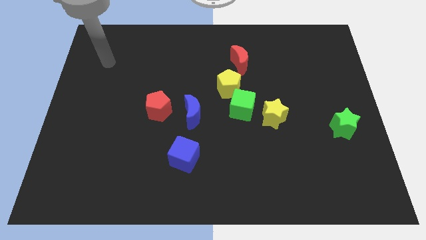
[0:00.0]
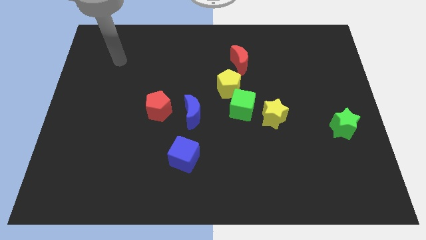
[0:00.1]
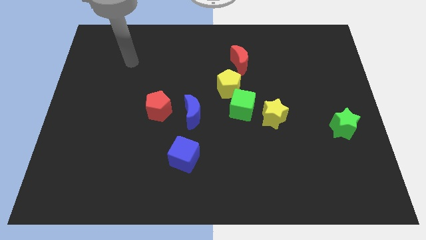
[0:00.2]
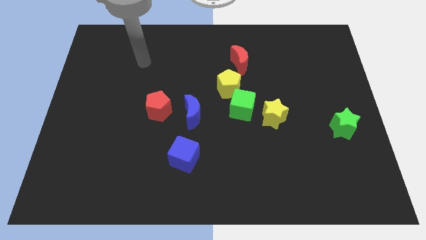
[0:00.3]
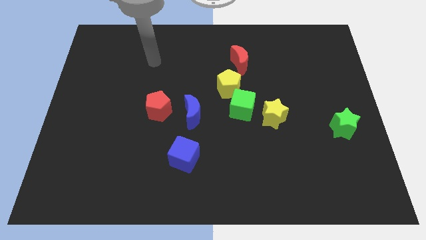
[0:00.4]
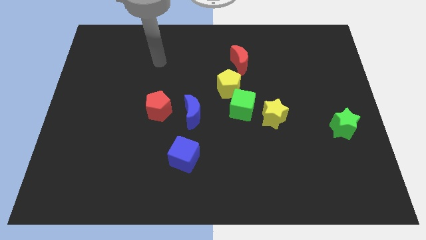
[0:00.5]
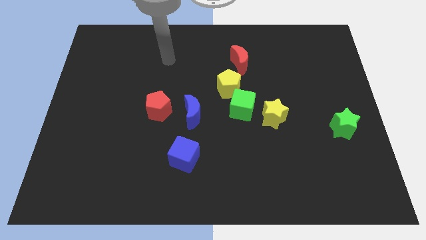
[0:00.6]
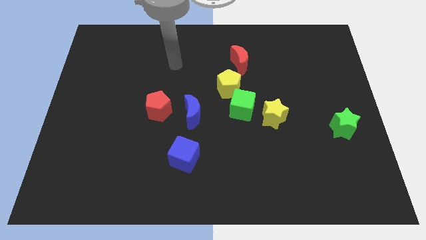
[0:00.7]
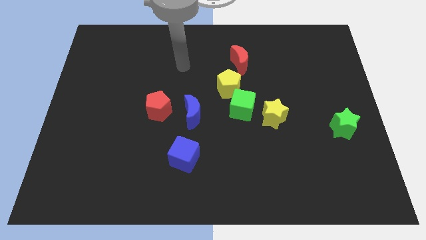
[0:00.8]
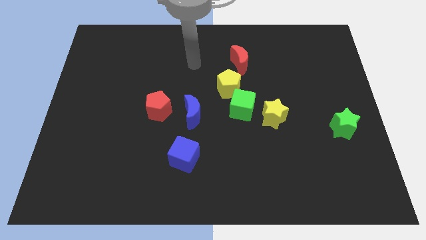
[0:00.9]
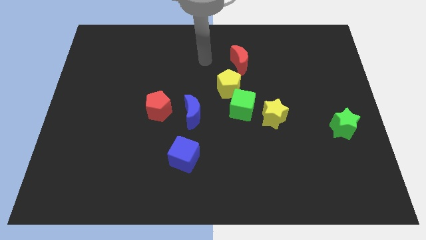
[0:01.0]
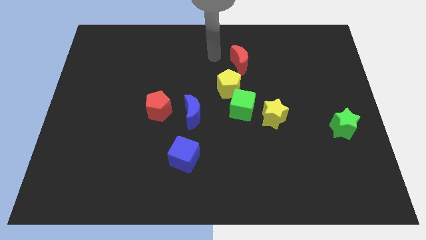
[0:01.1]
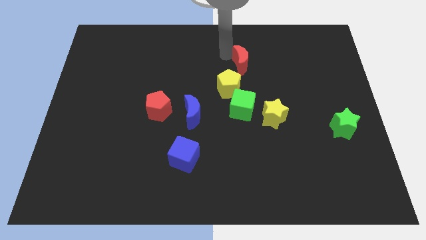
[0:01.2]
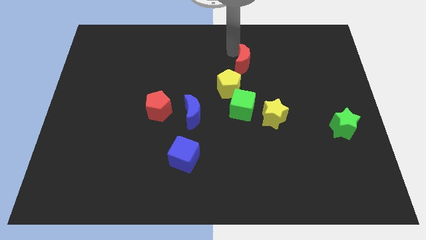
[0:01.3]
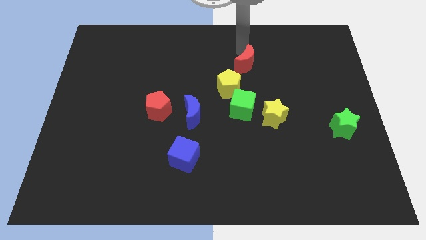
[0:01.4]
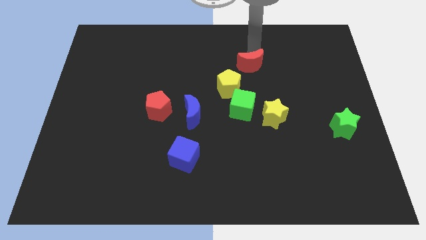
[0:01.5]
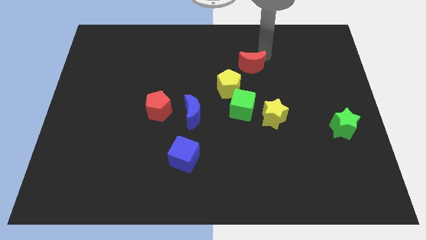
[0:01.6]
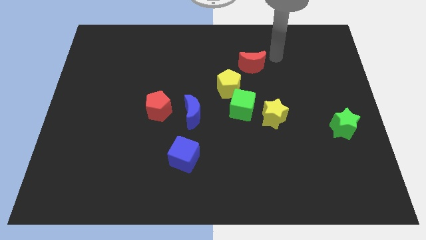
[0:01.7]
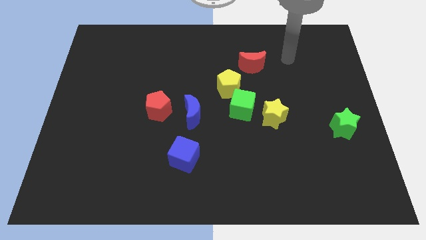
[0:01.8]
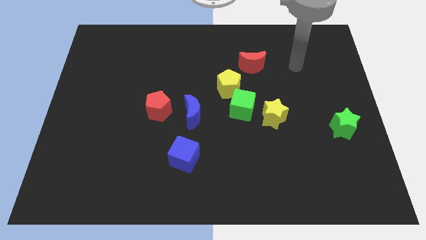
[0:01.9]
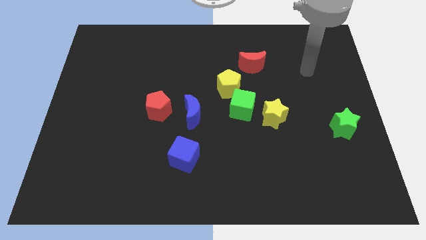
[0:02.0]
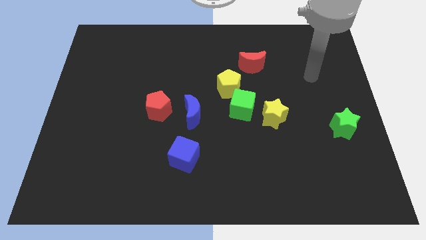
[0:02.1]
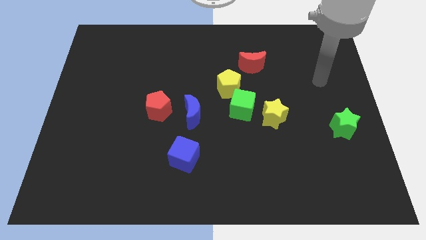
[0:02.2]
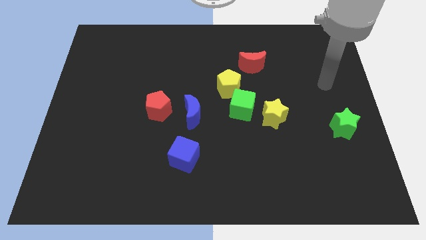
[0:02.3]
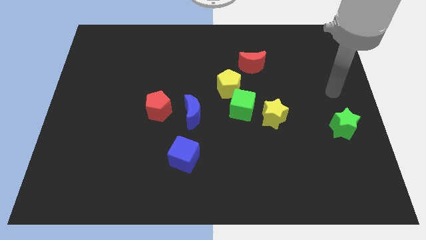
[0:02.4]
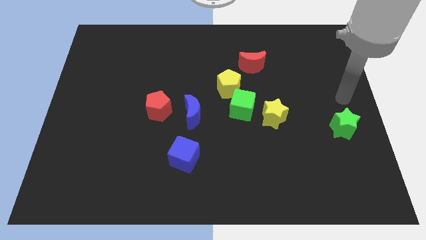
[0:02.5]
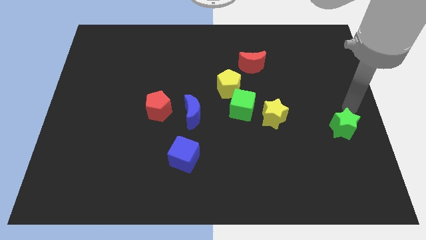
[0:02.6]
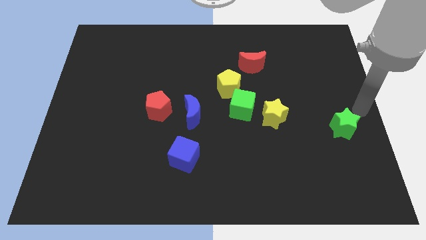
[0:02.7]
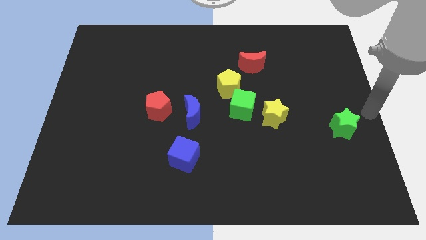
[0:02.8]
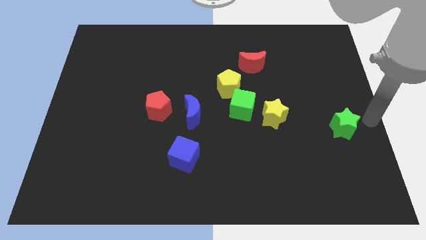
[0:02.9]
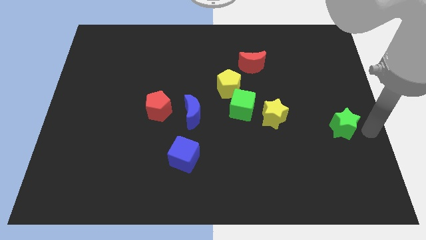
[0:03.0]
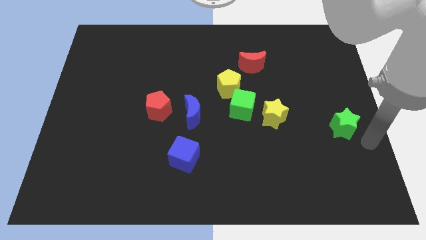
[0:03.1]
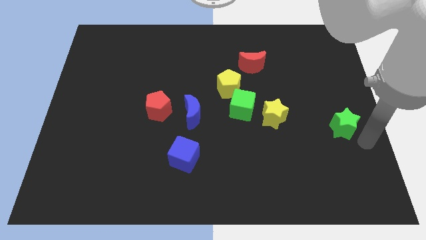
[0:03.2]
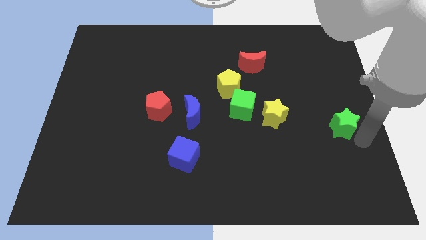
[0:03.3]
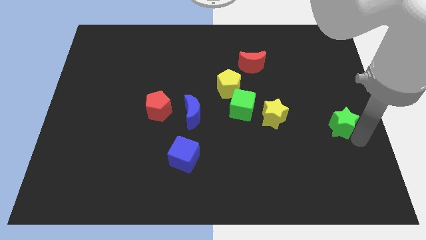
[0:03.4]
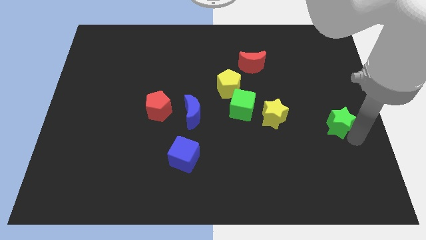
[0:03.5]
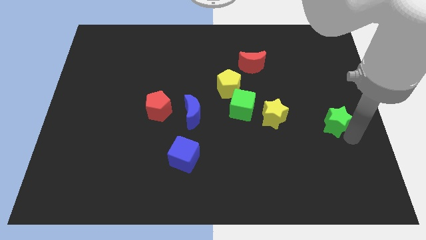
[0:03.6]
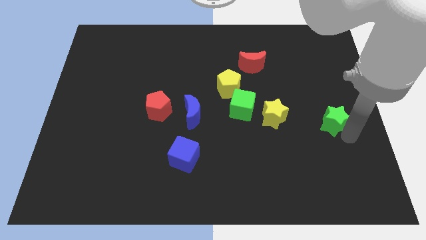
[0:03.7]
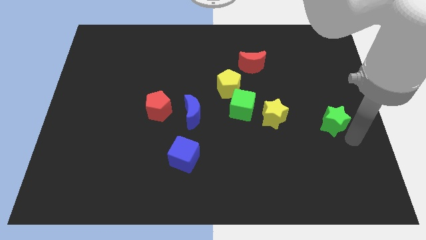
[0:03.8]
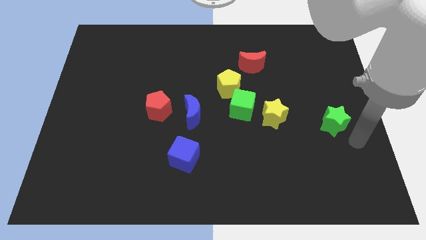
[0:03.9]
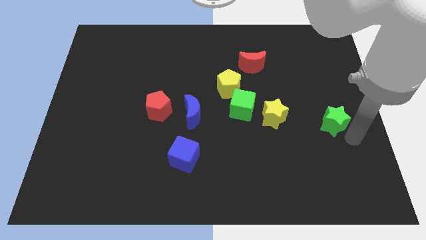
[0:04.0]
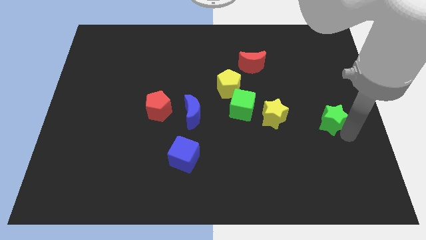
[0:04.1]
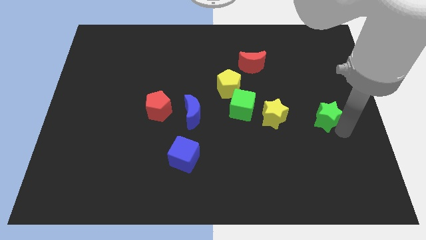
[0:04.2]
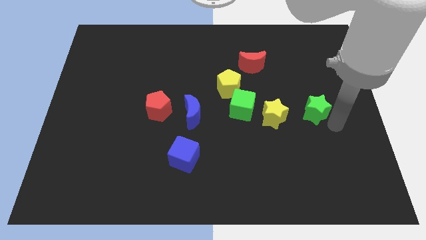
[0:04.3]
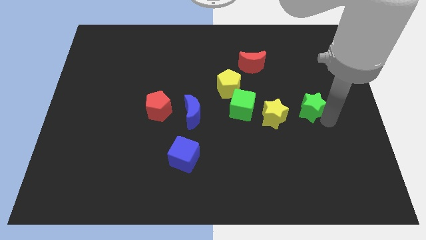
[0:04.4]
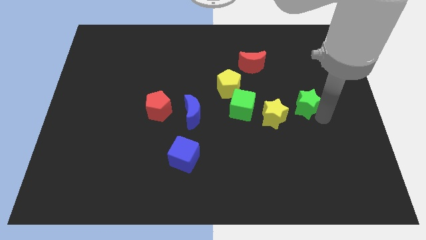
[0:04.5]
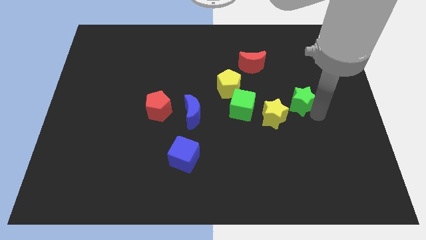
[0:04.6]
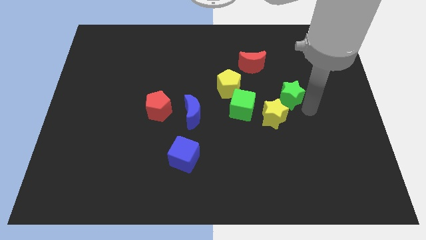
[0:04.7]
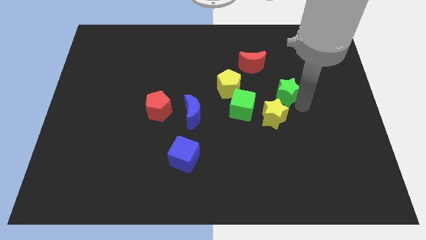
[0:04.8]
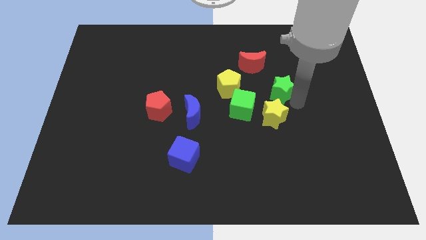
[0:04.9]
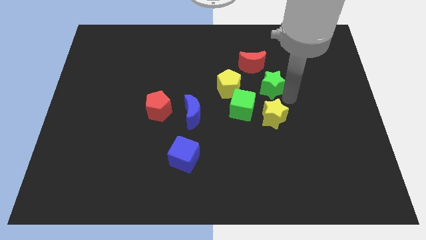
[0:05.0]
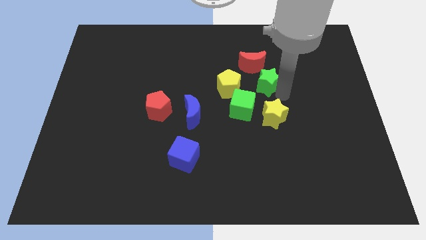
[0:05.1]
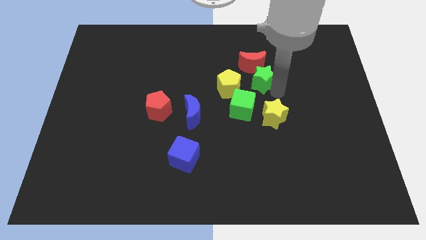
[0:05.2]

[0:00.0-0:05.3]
slide the green star to the red moon

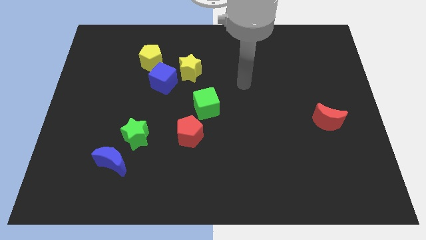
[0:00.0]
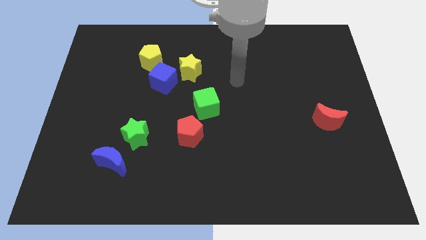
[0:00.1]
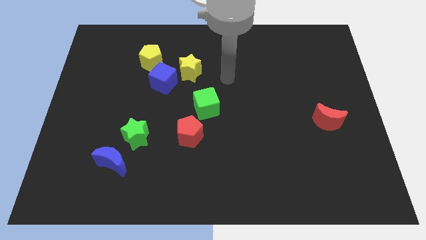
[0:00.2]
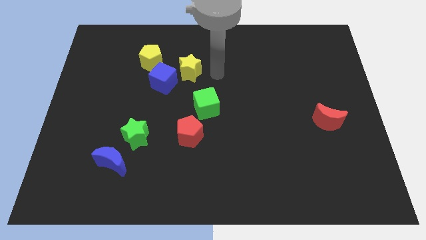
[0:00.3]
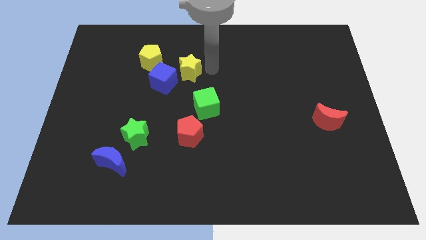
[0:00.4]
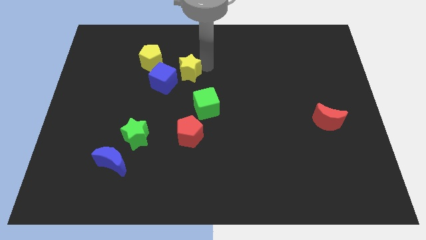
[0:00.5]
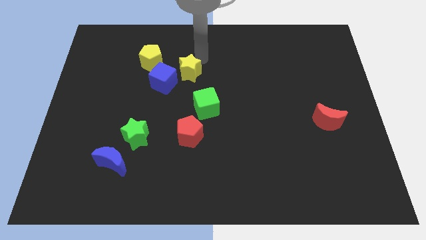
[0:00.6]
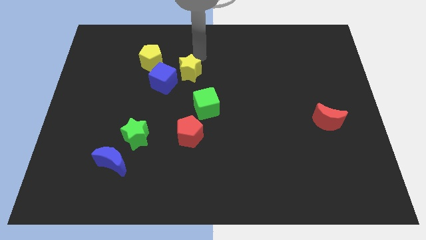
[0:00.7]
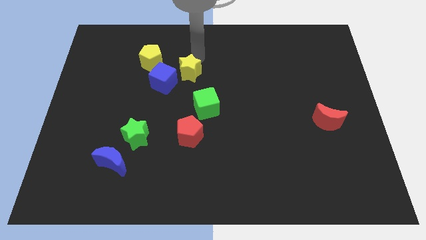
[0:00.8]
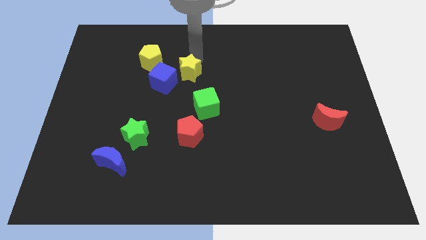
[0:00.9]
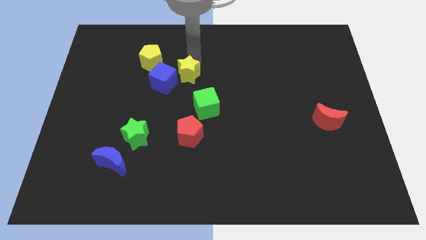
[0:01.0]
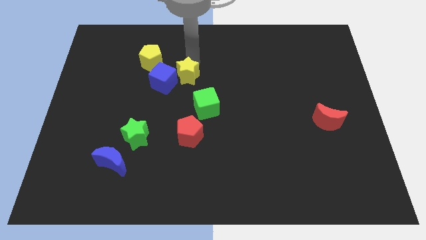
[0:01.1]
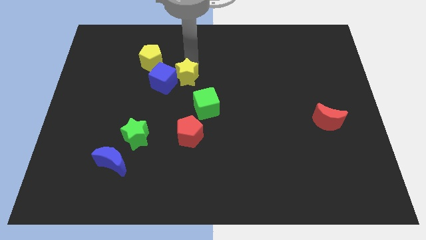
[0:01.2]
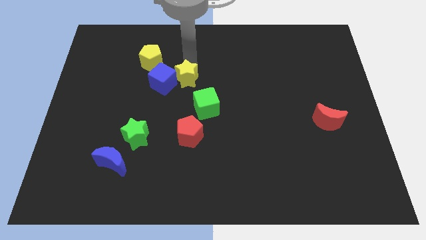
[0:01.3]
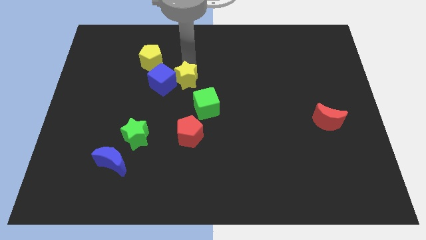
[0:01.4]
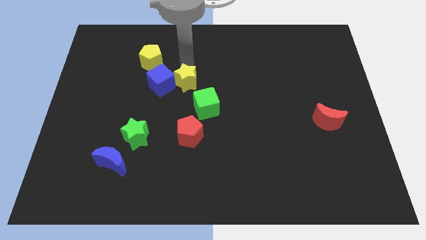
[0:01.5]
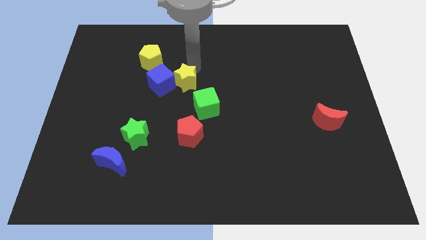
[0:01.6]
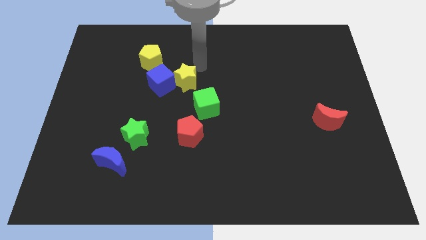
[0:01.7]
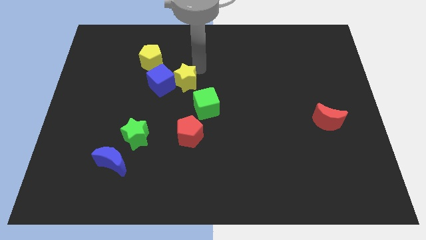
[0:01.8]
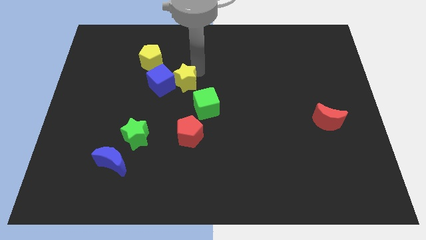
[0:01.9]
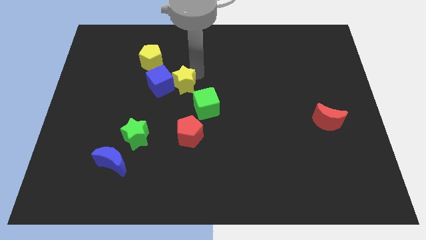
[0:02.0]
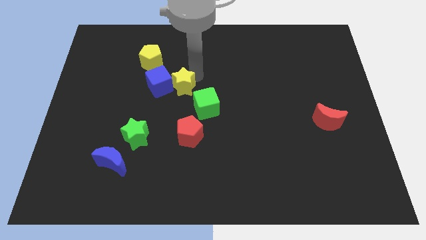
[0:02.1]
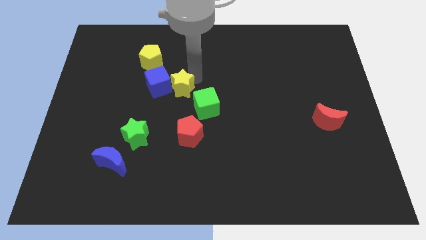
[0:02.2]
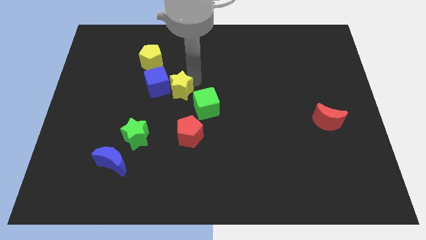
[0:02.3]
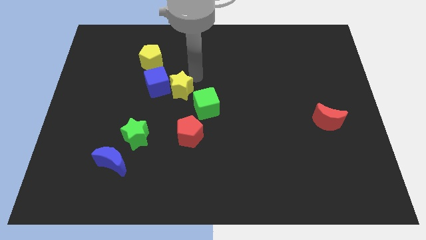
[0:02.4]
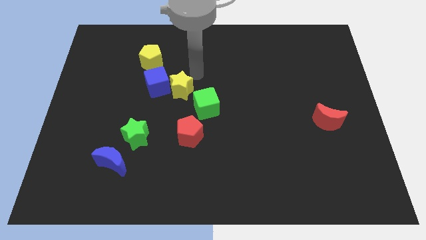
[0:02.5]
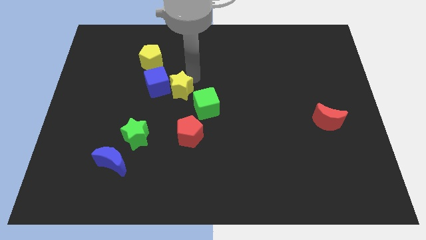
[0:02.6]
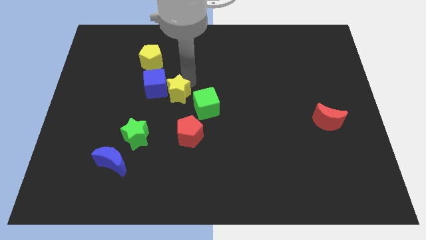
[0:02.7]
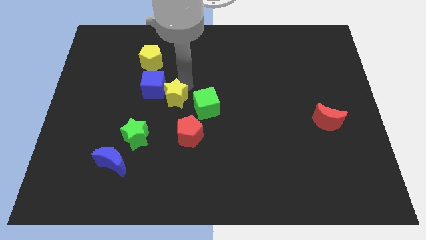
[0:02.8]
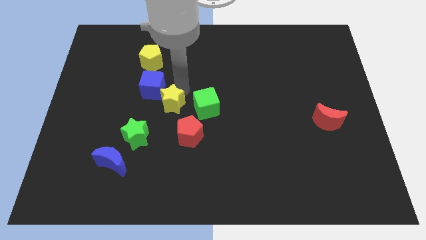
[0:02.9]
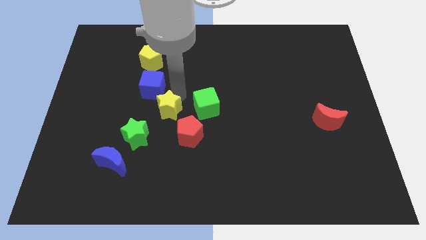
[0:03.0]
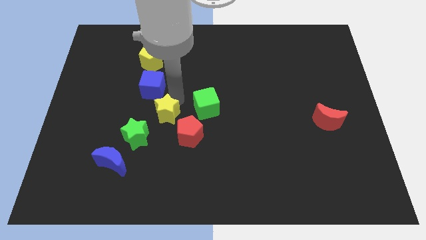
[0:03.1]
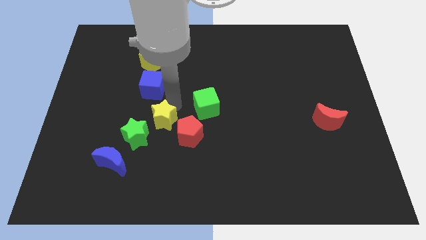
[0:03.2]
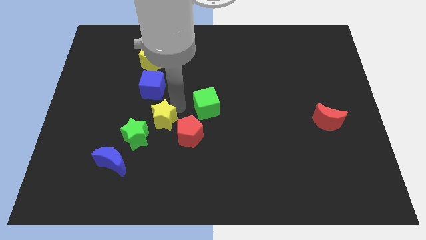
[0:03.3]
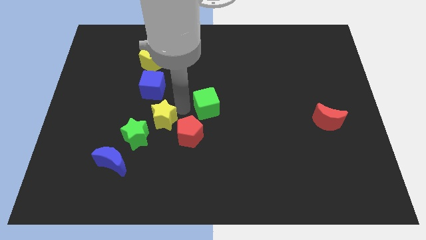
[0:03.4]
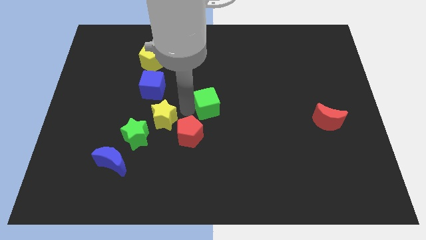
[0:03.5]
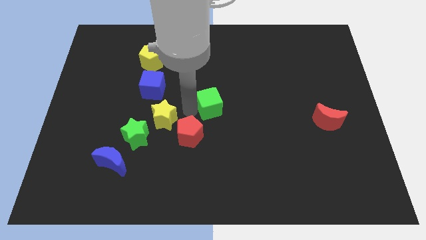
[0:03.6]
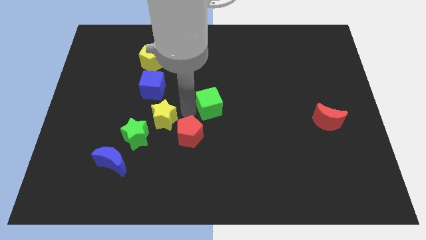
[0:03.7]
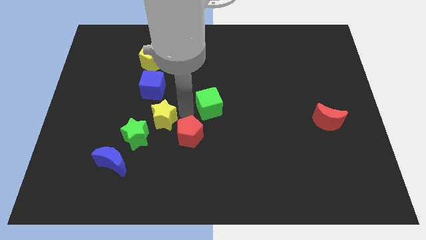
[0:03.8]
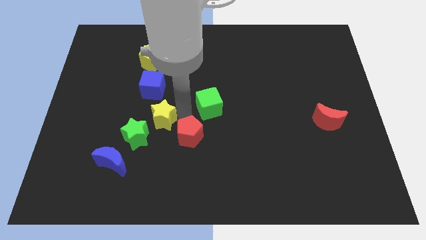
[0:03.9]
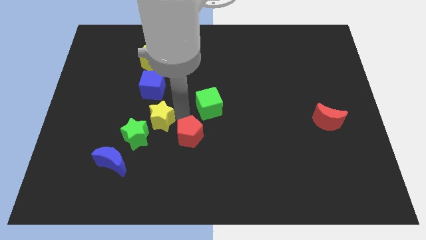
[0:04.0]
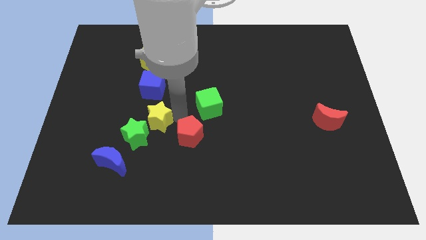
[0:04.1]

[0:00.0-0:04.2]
push the yellow star towards the green star
